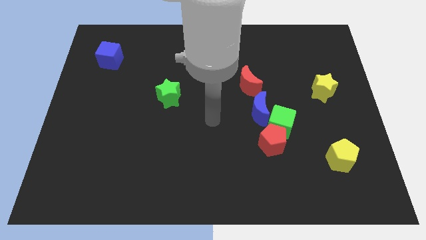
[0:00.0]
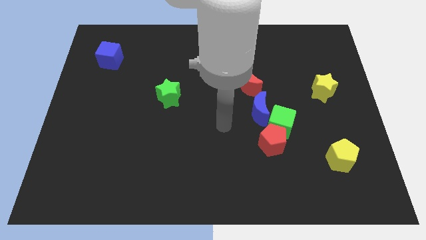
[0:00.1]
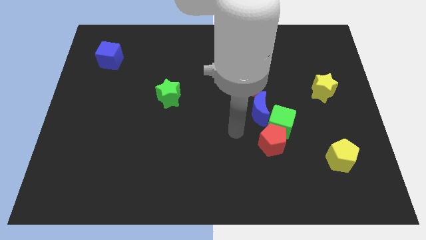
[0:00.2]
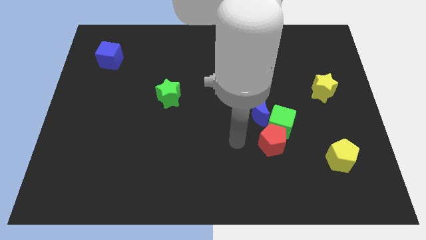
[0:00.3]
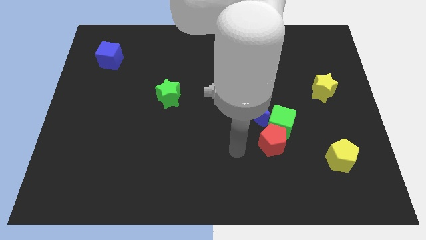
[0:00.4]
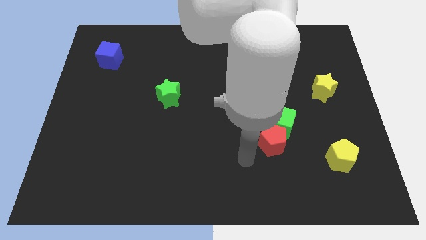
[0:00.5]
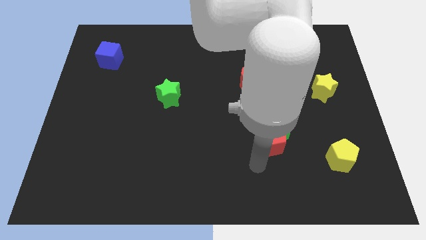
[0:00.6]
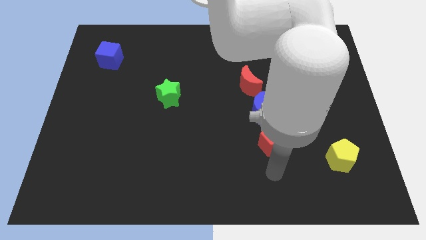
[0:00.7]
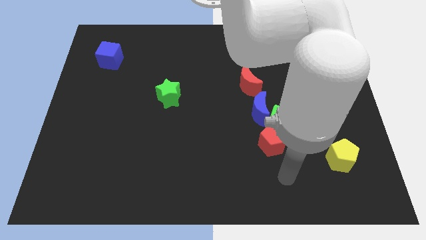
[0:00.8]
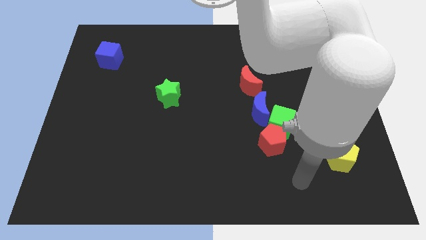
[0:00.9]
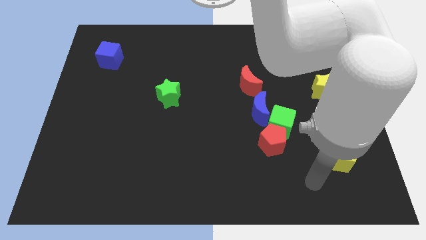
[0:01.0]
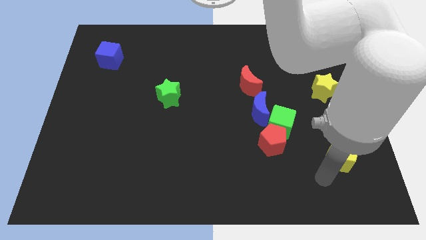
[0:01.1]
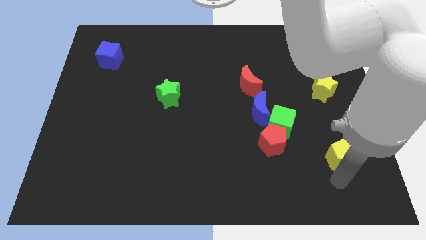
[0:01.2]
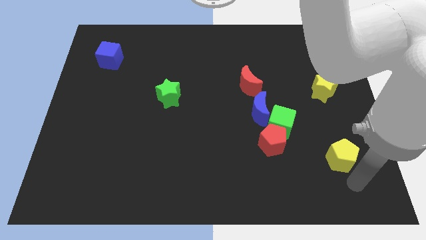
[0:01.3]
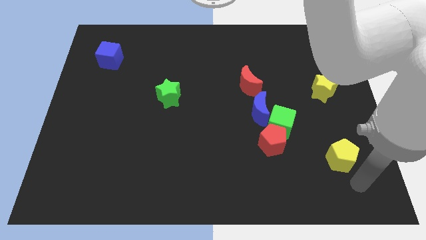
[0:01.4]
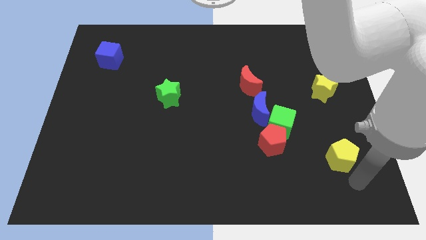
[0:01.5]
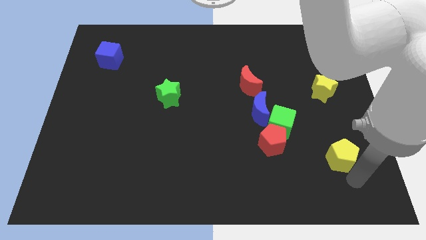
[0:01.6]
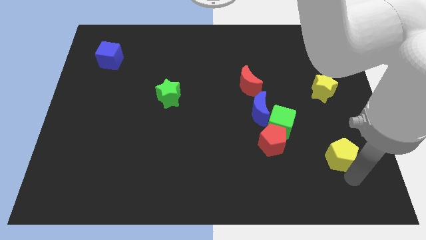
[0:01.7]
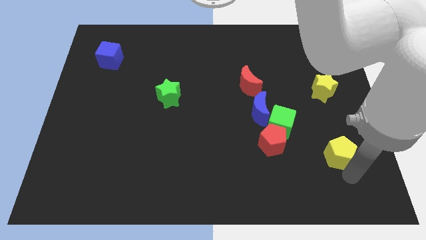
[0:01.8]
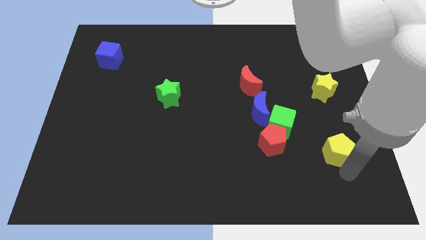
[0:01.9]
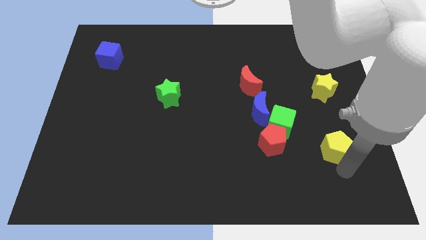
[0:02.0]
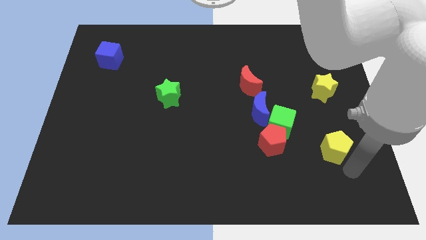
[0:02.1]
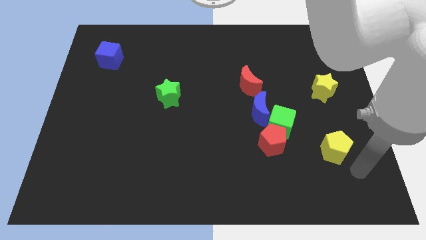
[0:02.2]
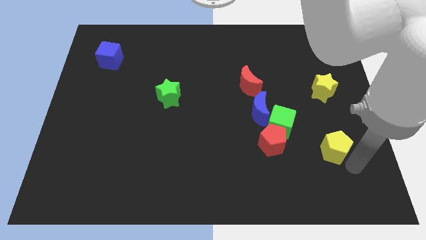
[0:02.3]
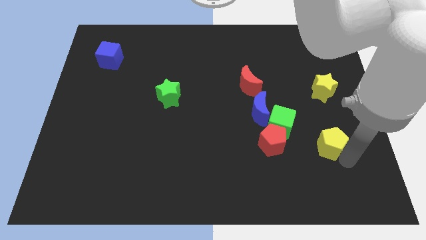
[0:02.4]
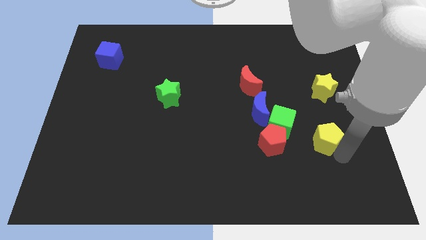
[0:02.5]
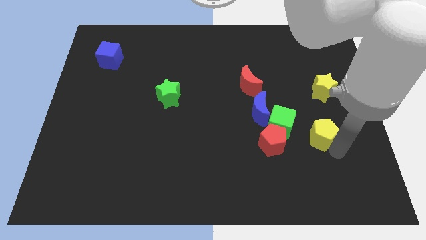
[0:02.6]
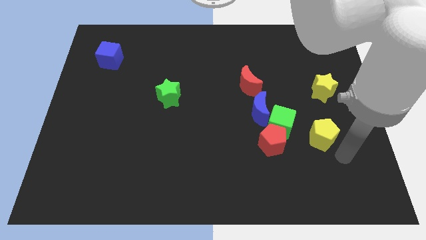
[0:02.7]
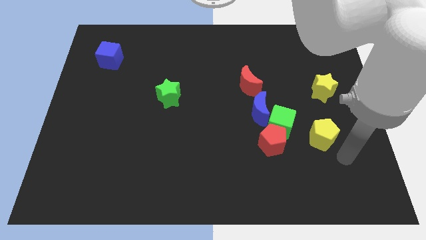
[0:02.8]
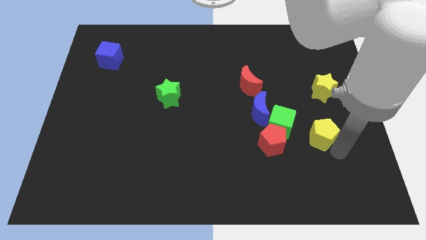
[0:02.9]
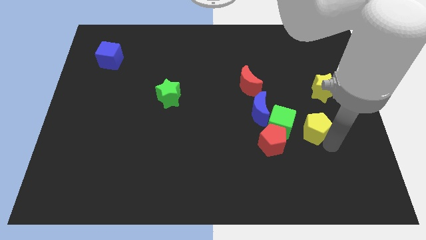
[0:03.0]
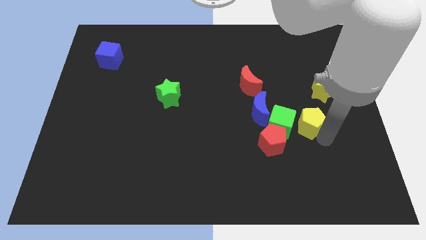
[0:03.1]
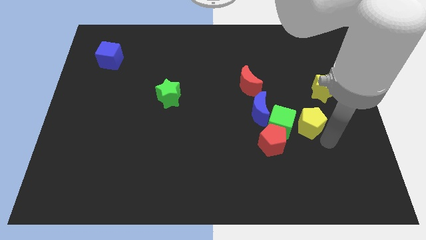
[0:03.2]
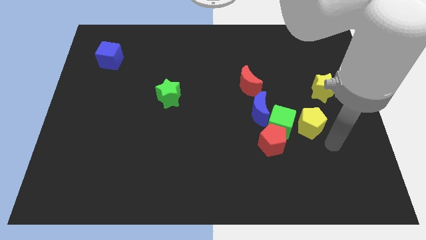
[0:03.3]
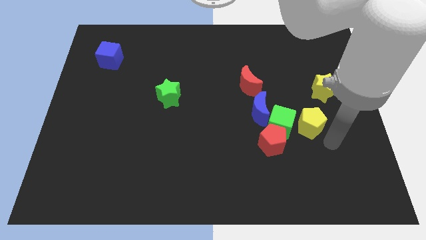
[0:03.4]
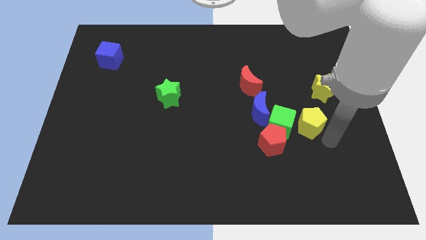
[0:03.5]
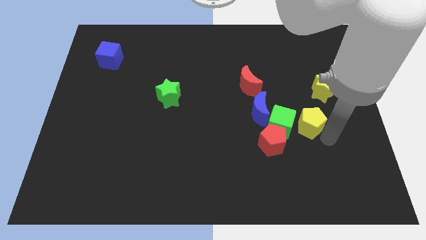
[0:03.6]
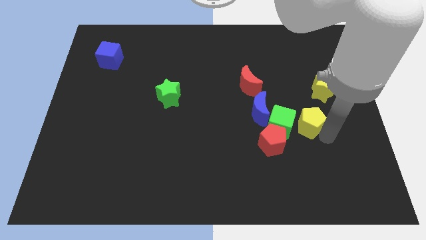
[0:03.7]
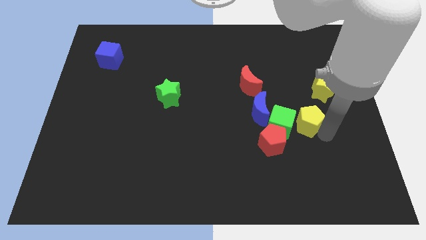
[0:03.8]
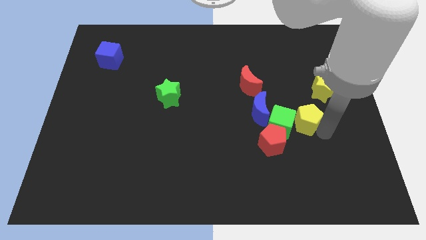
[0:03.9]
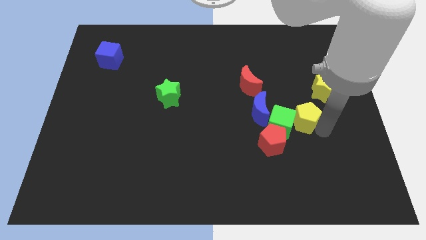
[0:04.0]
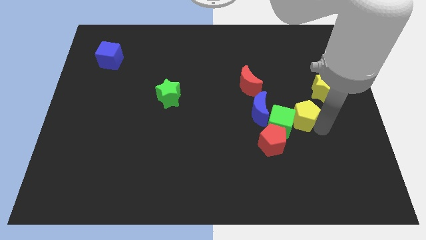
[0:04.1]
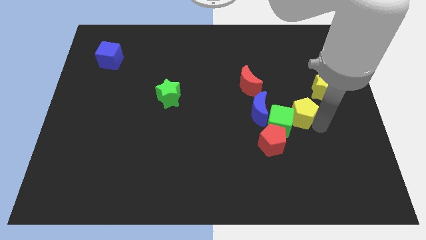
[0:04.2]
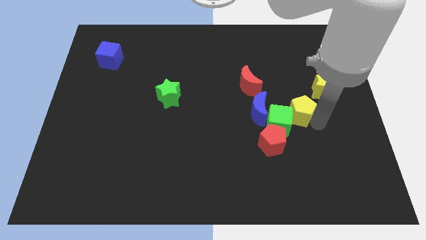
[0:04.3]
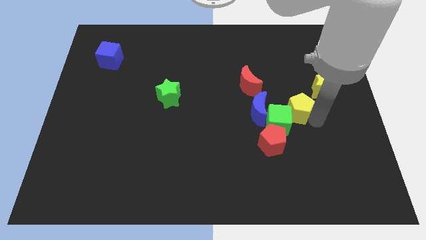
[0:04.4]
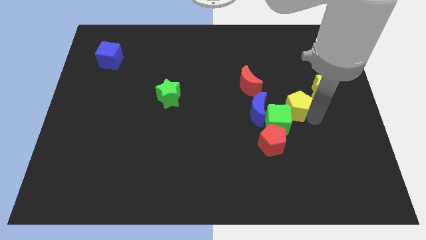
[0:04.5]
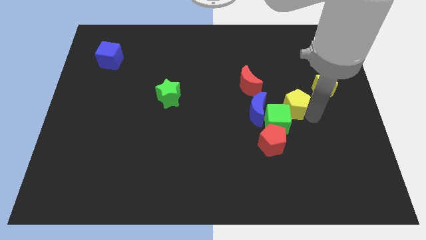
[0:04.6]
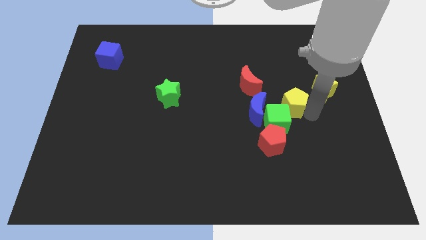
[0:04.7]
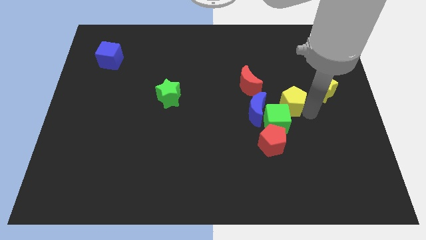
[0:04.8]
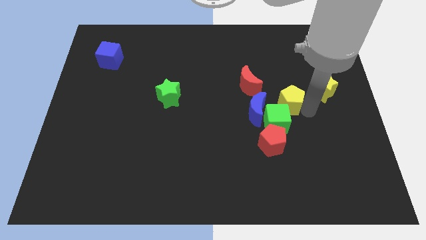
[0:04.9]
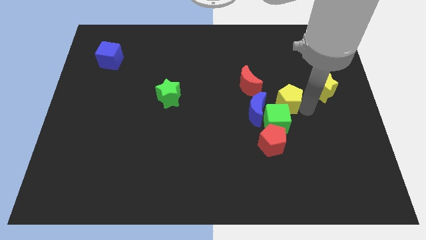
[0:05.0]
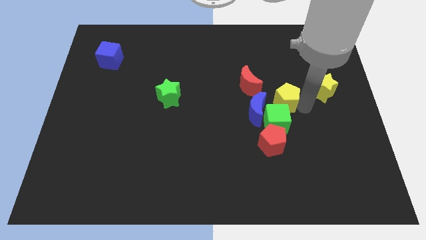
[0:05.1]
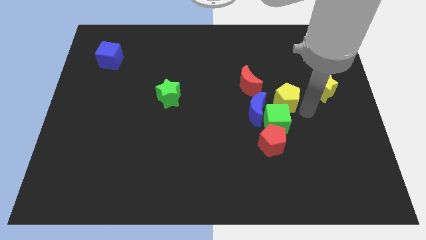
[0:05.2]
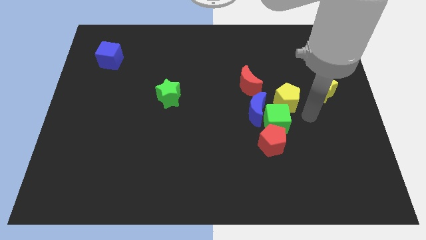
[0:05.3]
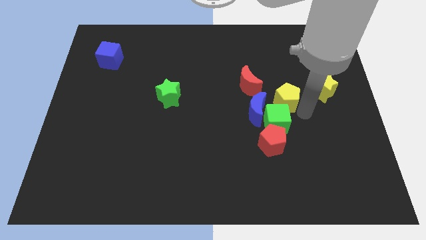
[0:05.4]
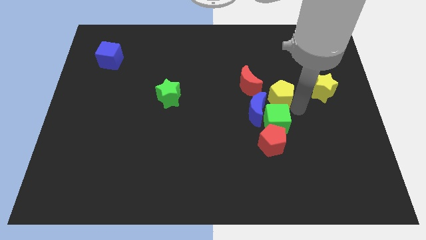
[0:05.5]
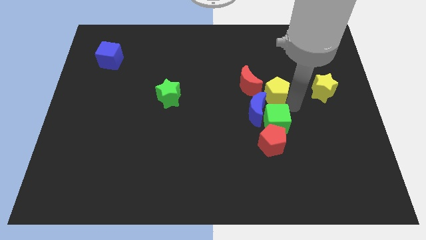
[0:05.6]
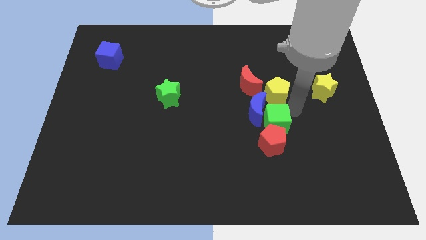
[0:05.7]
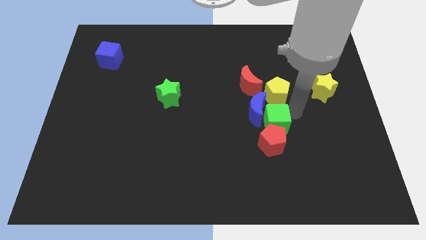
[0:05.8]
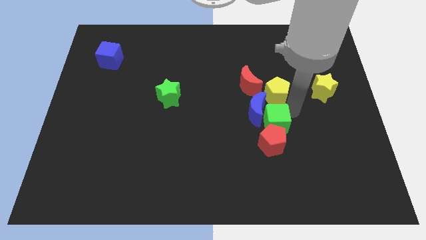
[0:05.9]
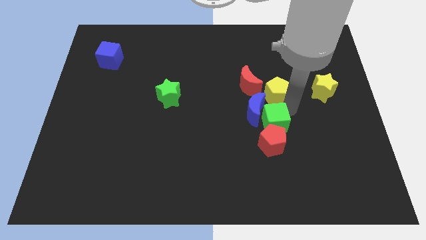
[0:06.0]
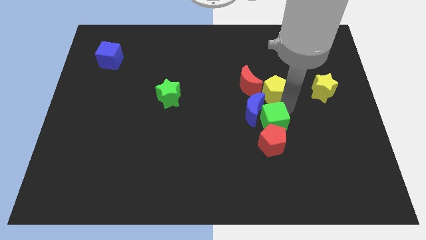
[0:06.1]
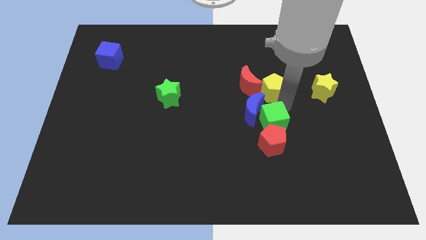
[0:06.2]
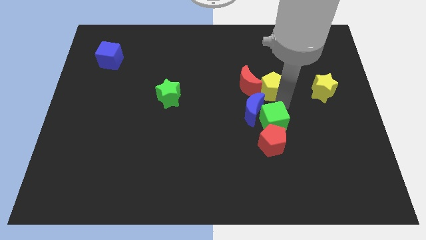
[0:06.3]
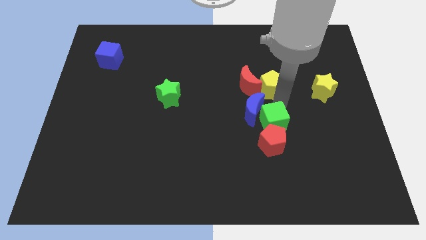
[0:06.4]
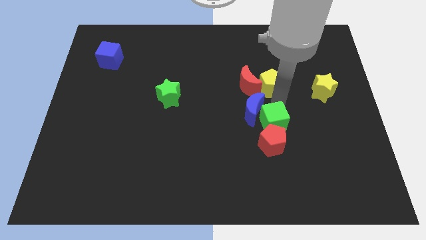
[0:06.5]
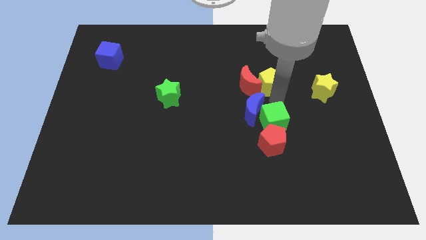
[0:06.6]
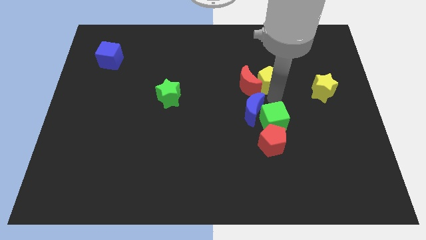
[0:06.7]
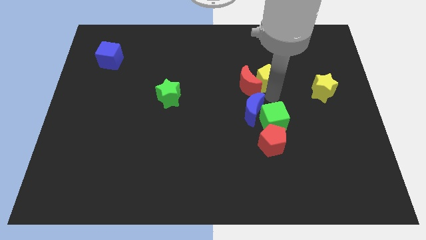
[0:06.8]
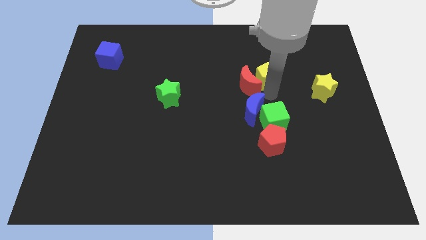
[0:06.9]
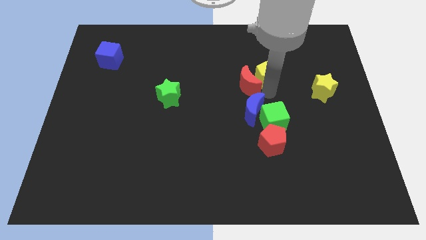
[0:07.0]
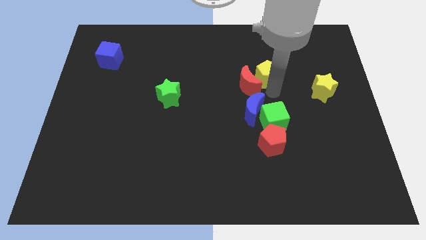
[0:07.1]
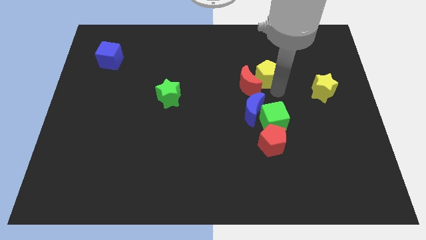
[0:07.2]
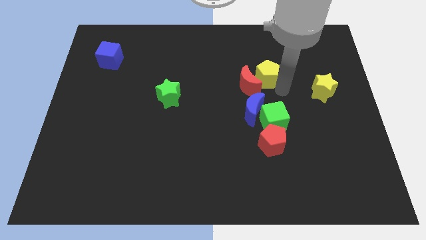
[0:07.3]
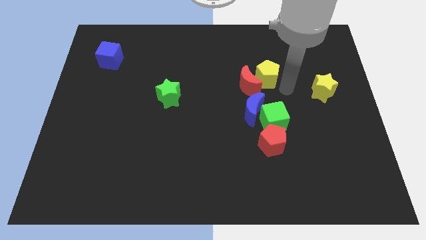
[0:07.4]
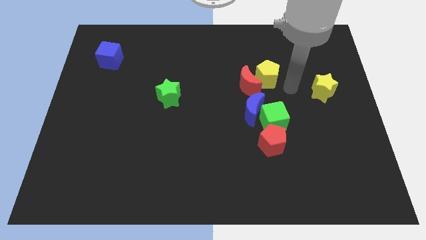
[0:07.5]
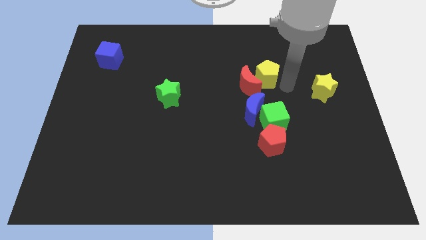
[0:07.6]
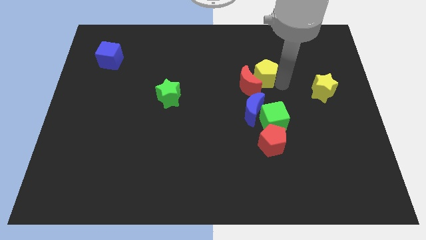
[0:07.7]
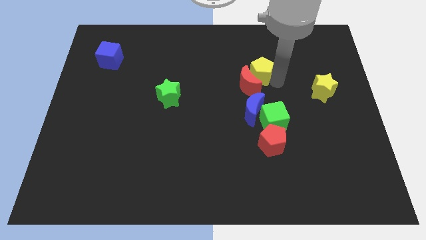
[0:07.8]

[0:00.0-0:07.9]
slide the yellow pentagon to the top of the red moon
